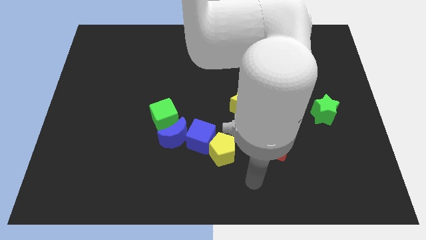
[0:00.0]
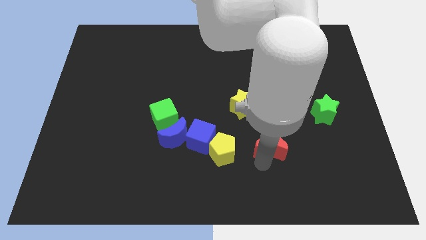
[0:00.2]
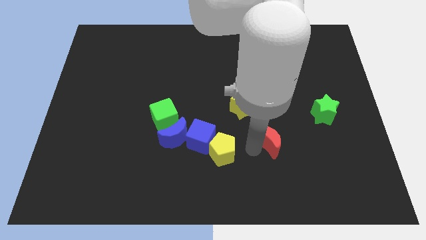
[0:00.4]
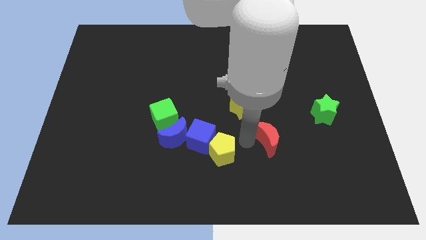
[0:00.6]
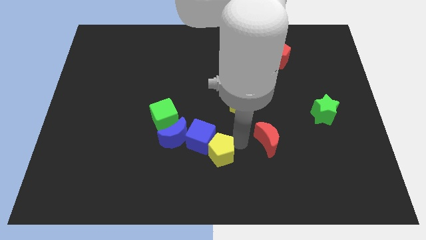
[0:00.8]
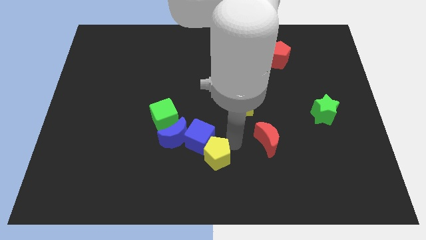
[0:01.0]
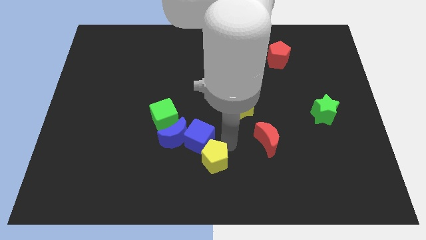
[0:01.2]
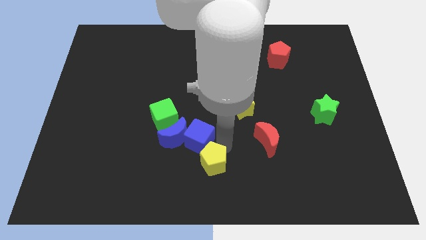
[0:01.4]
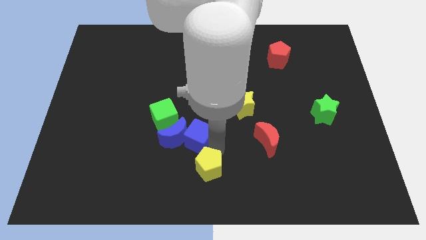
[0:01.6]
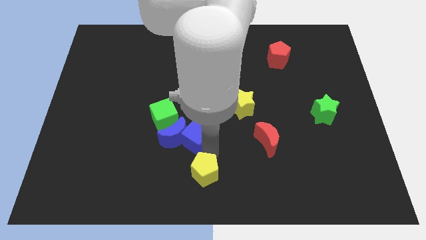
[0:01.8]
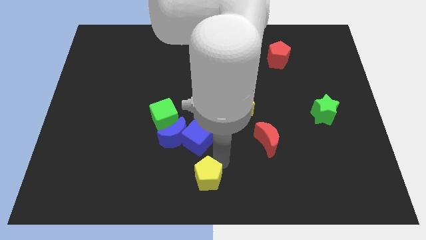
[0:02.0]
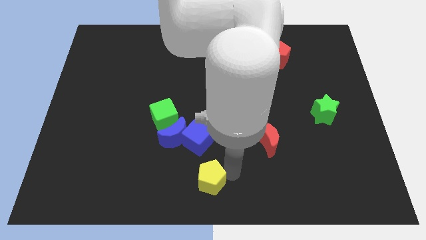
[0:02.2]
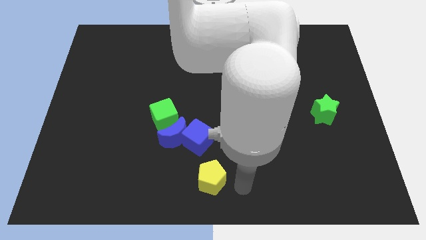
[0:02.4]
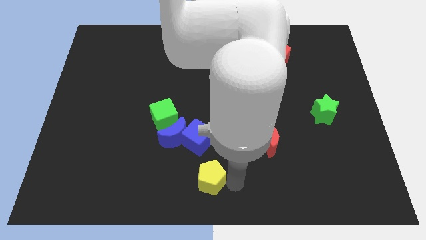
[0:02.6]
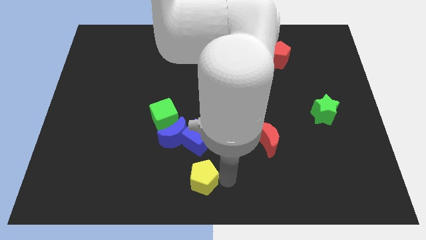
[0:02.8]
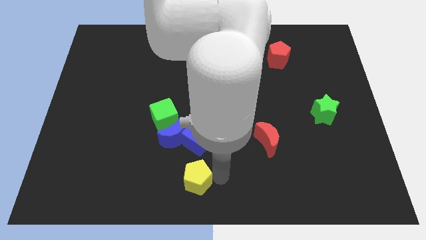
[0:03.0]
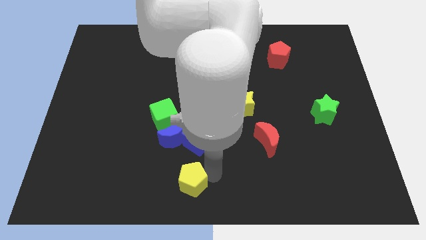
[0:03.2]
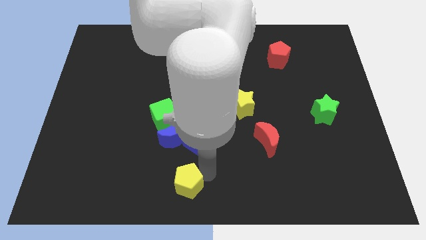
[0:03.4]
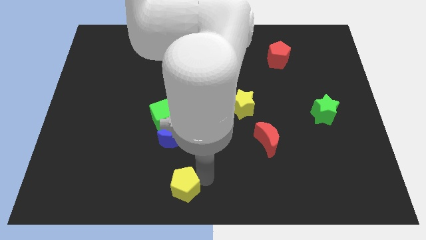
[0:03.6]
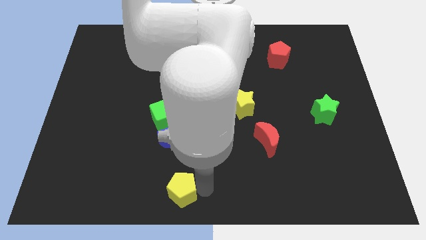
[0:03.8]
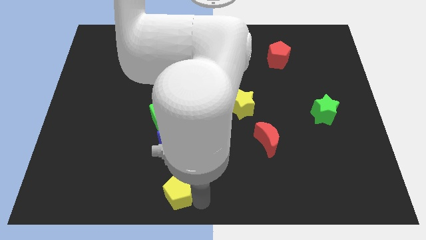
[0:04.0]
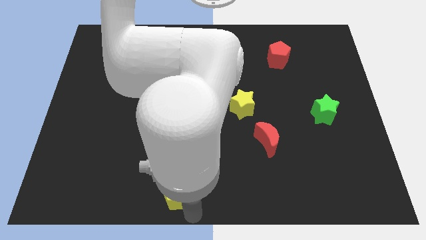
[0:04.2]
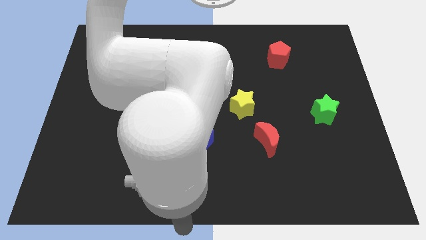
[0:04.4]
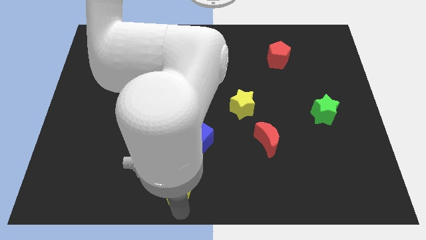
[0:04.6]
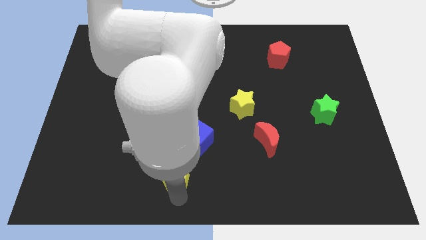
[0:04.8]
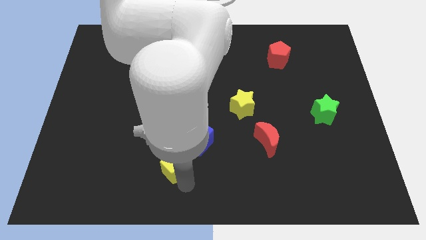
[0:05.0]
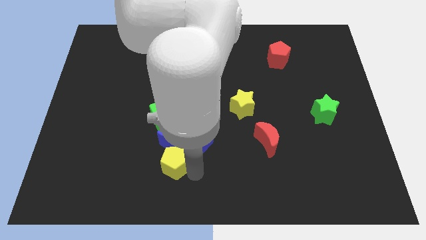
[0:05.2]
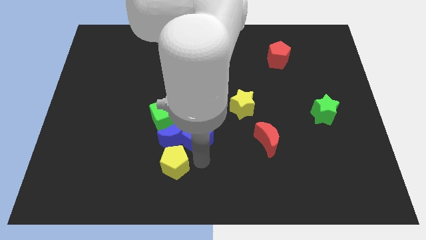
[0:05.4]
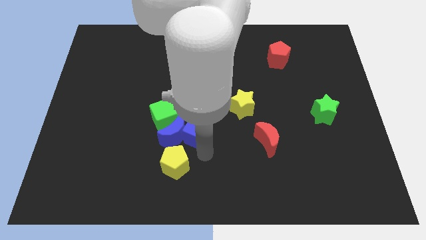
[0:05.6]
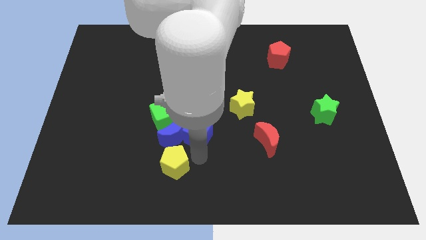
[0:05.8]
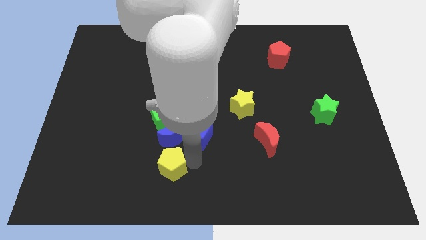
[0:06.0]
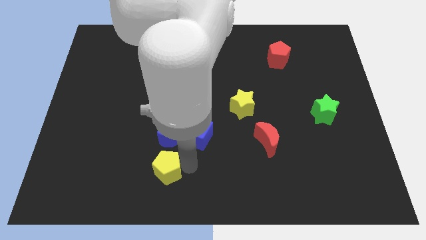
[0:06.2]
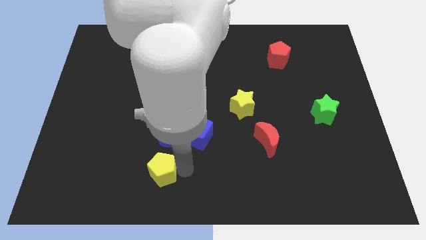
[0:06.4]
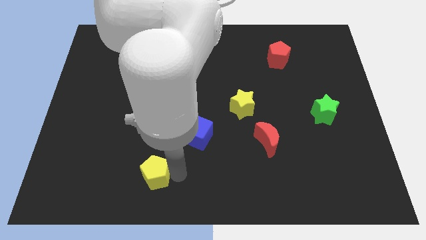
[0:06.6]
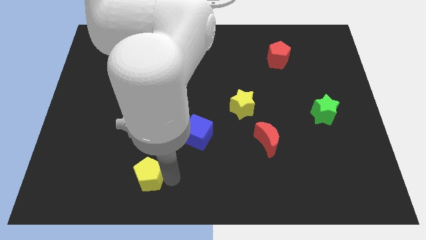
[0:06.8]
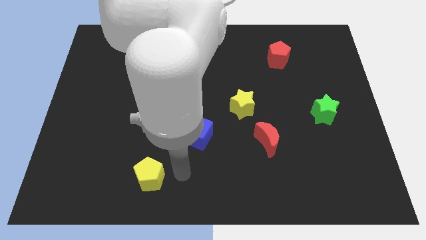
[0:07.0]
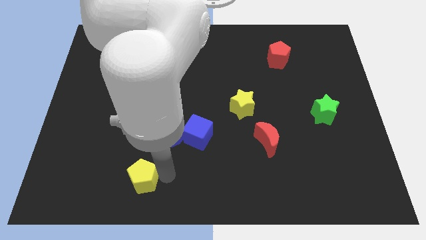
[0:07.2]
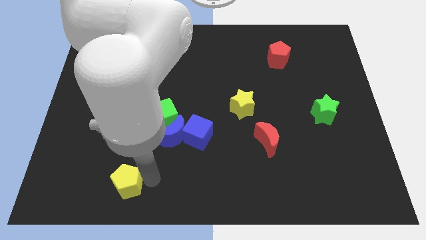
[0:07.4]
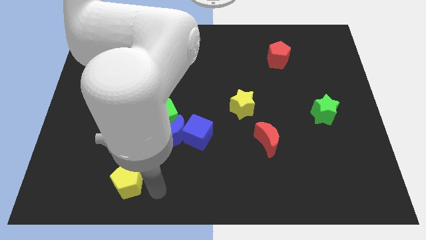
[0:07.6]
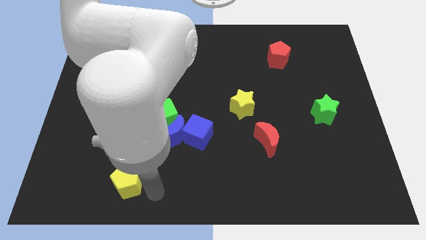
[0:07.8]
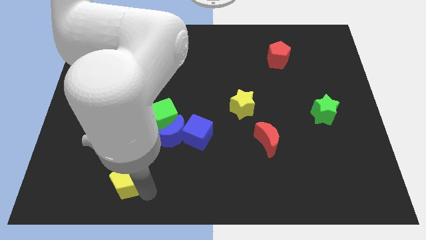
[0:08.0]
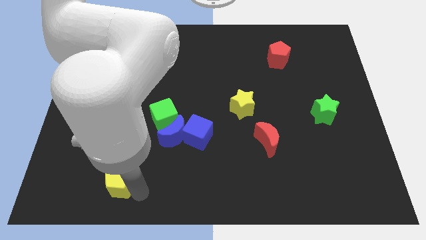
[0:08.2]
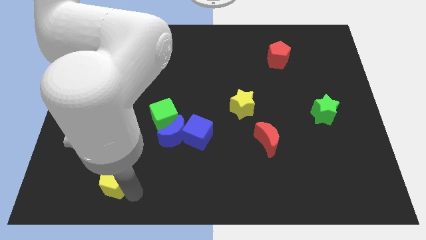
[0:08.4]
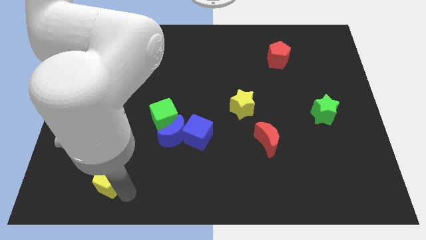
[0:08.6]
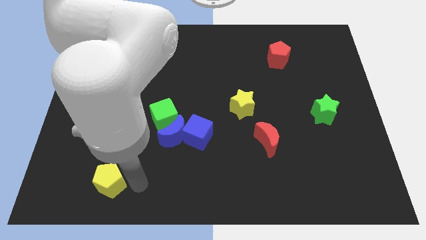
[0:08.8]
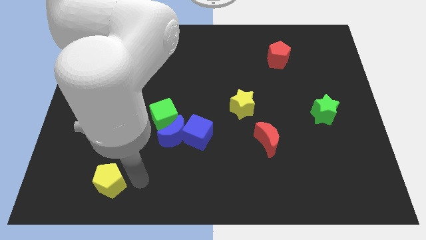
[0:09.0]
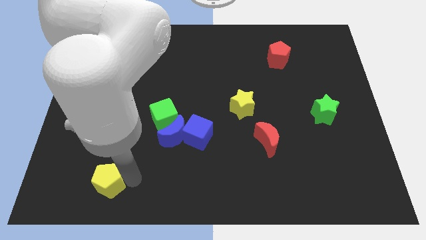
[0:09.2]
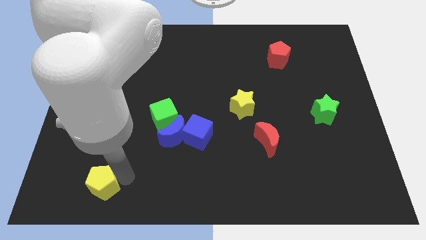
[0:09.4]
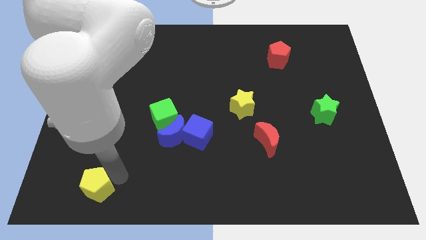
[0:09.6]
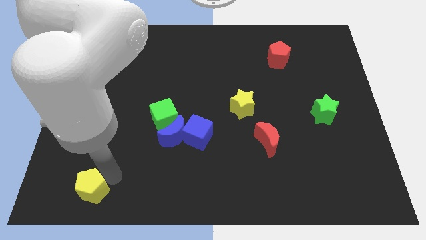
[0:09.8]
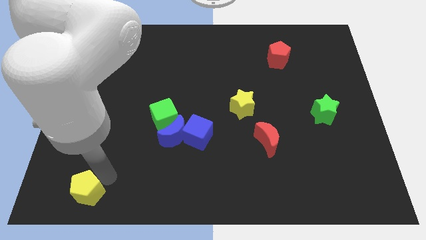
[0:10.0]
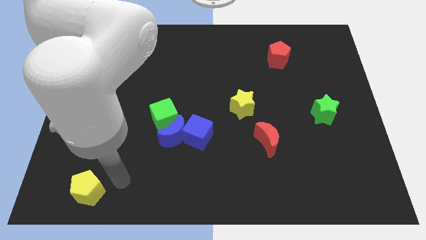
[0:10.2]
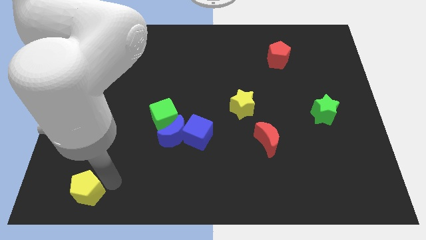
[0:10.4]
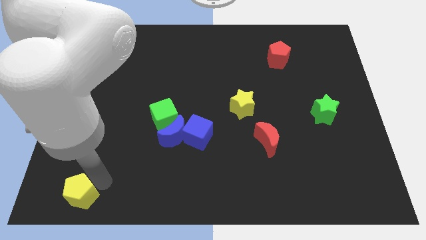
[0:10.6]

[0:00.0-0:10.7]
slide the yellow pentagon to the bottom left
